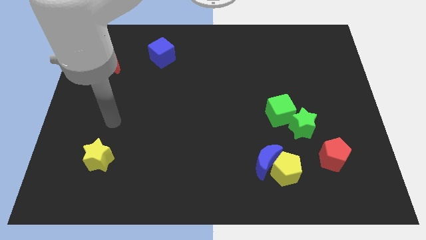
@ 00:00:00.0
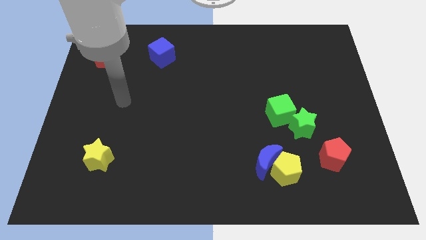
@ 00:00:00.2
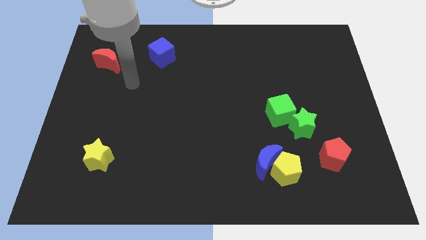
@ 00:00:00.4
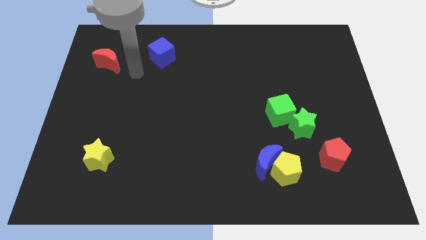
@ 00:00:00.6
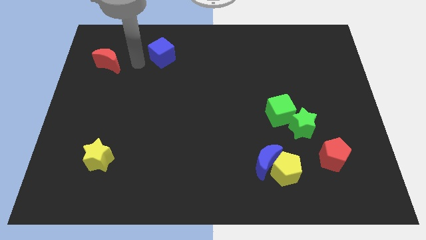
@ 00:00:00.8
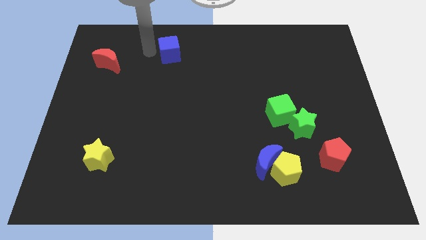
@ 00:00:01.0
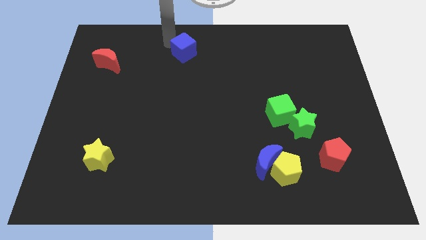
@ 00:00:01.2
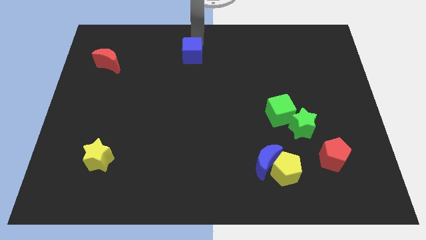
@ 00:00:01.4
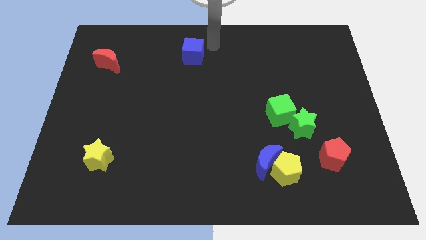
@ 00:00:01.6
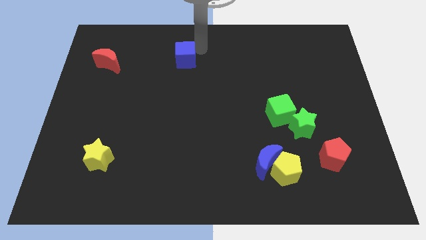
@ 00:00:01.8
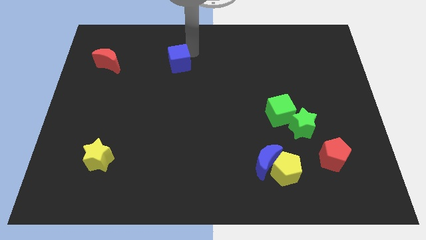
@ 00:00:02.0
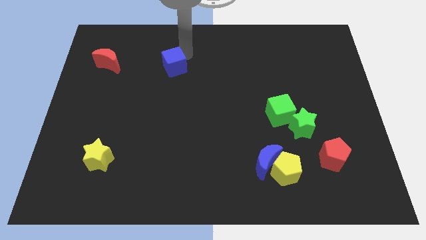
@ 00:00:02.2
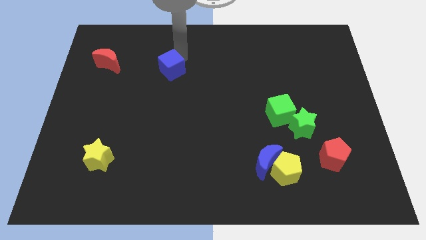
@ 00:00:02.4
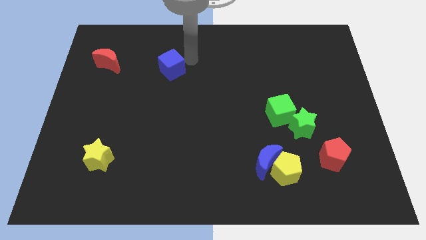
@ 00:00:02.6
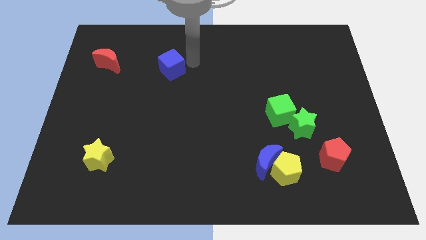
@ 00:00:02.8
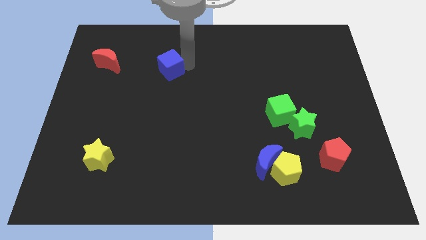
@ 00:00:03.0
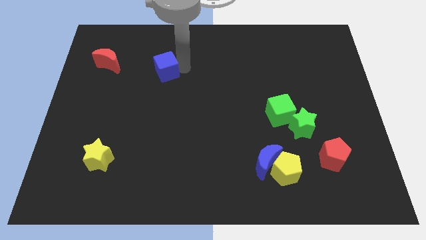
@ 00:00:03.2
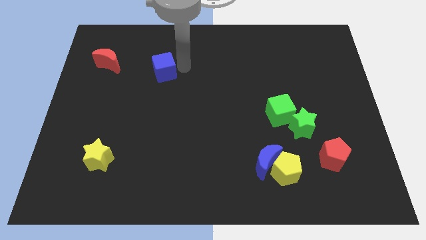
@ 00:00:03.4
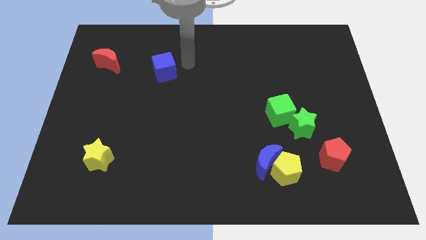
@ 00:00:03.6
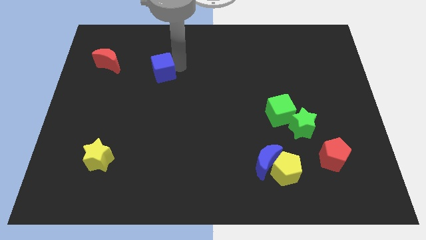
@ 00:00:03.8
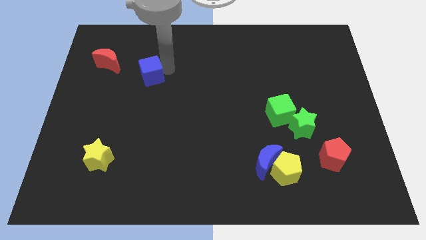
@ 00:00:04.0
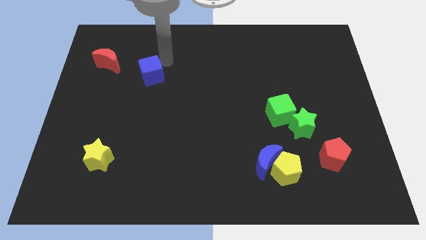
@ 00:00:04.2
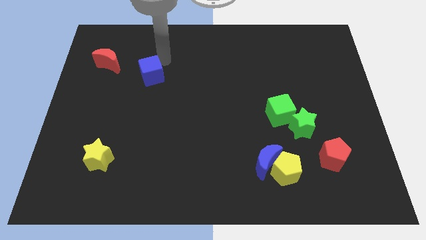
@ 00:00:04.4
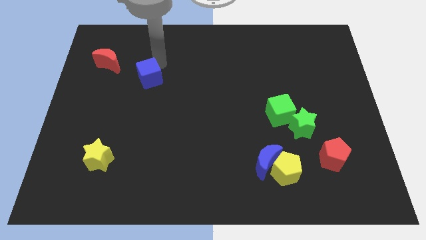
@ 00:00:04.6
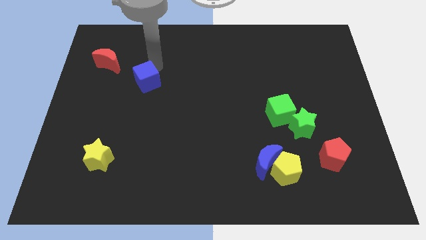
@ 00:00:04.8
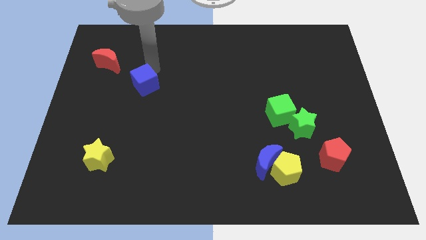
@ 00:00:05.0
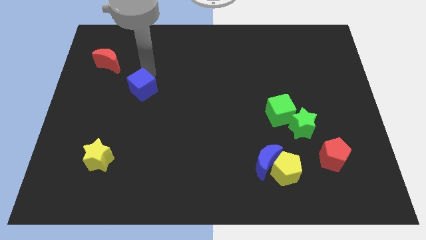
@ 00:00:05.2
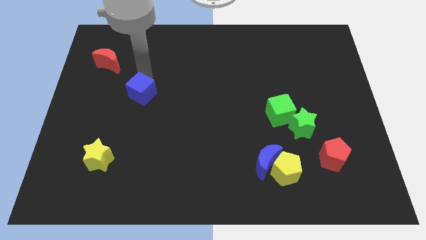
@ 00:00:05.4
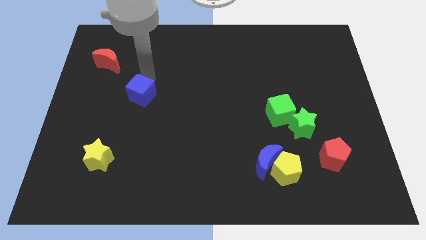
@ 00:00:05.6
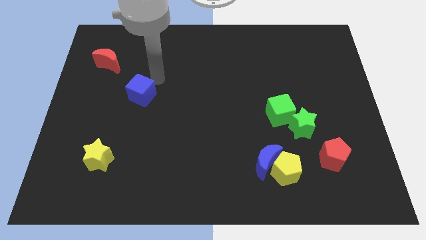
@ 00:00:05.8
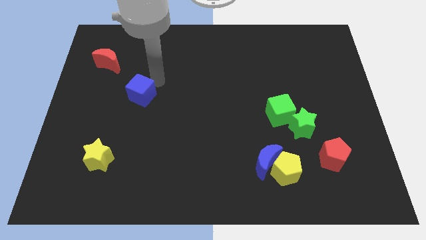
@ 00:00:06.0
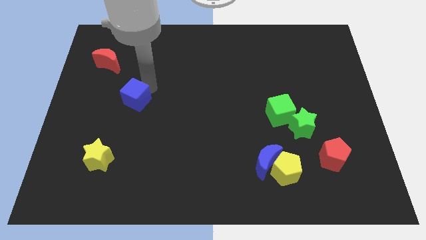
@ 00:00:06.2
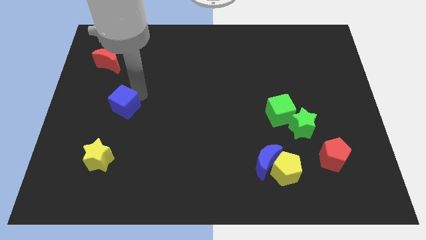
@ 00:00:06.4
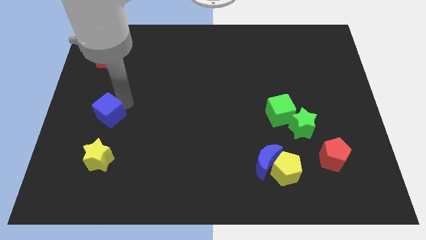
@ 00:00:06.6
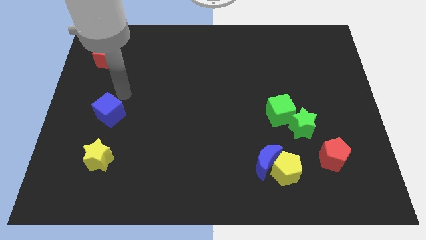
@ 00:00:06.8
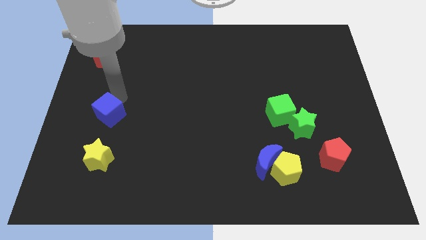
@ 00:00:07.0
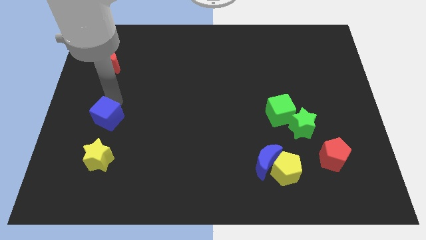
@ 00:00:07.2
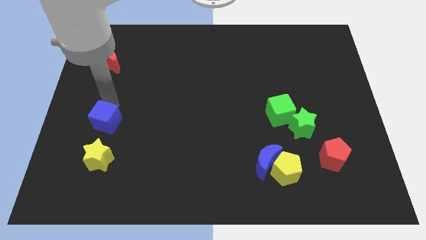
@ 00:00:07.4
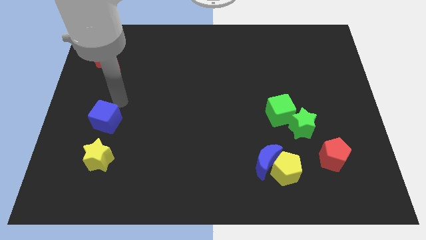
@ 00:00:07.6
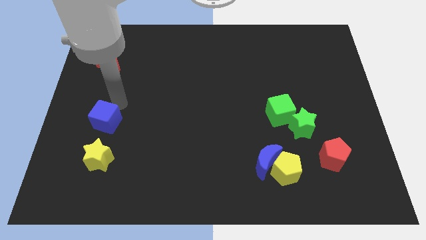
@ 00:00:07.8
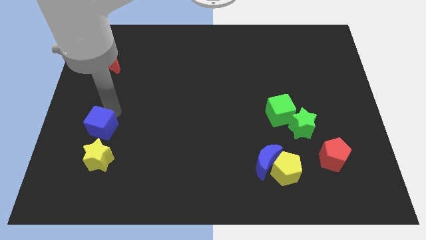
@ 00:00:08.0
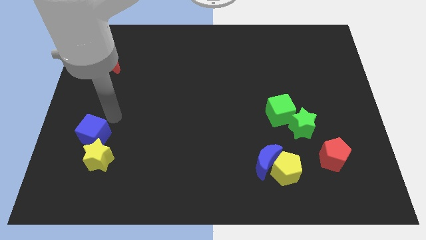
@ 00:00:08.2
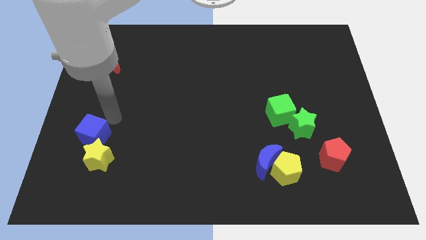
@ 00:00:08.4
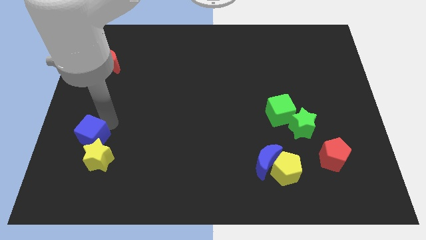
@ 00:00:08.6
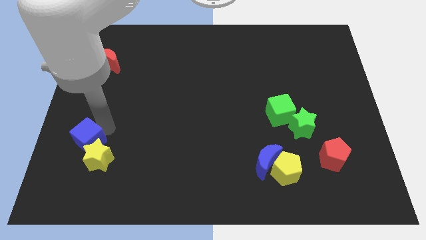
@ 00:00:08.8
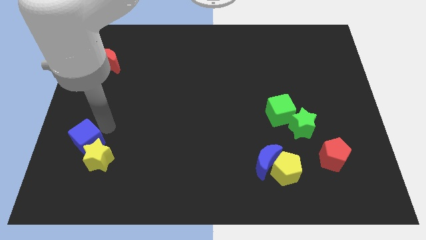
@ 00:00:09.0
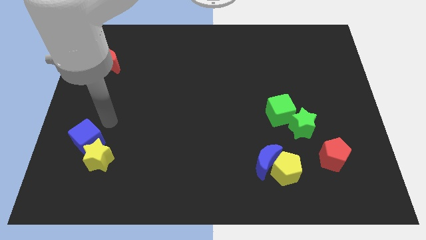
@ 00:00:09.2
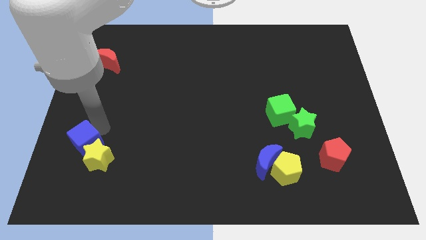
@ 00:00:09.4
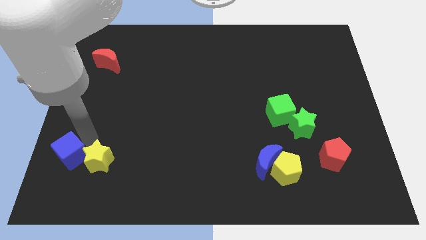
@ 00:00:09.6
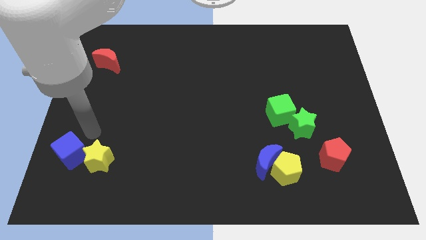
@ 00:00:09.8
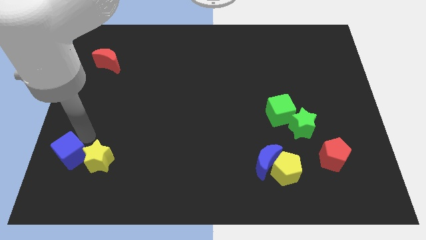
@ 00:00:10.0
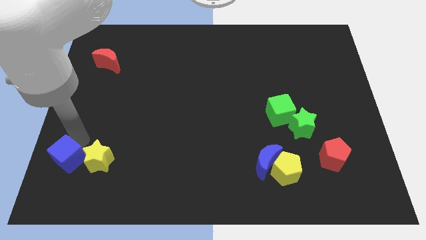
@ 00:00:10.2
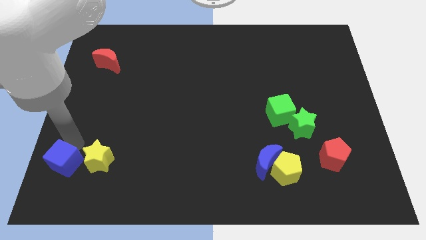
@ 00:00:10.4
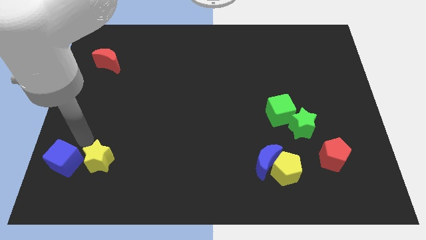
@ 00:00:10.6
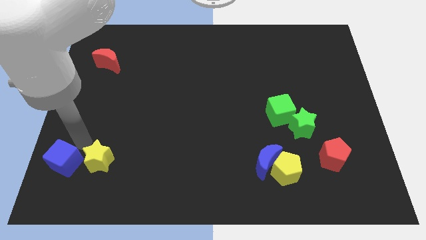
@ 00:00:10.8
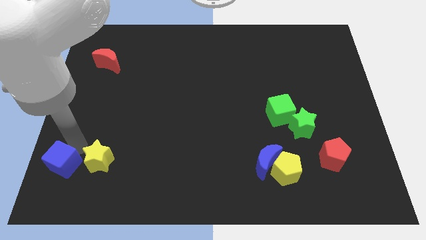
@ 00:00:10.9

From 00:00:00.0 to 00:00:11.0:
push the blue cube to the lower left corner

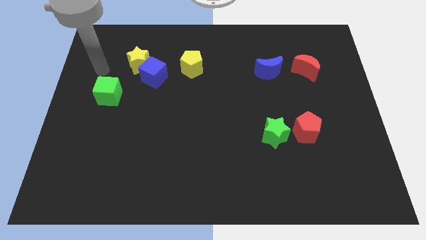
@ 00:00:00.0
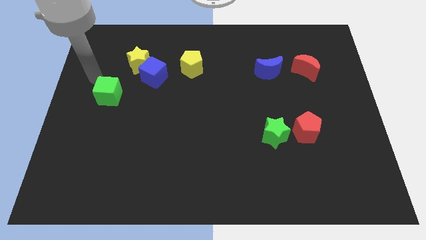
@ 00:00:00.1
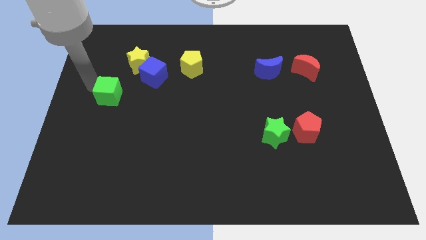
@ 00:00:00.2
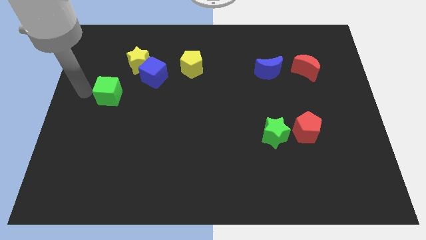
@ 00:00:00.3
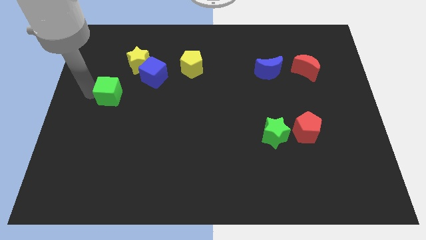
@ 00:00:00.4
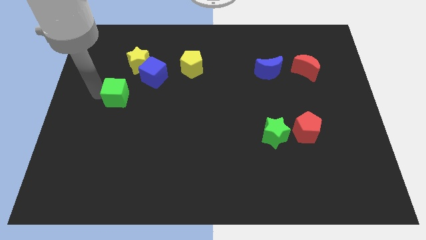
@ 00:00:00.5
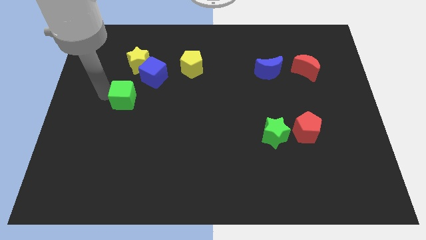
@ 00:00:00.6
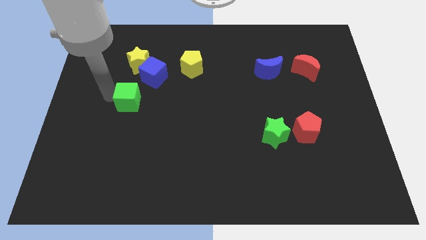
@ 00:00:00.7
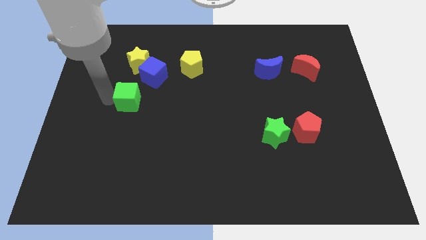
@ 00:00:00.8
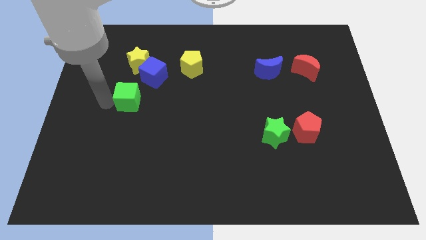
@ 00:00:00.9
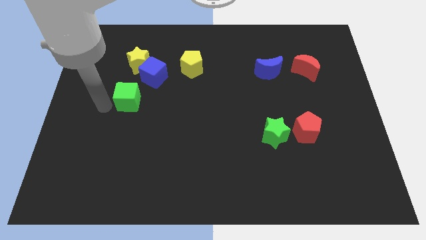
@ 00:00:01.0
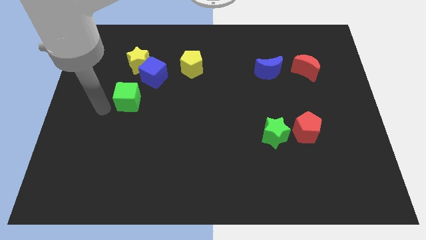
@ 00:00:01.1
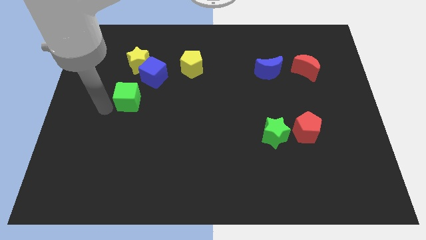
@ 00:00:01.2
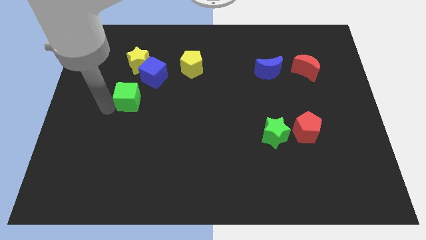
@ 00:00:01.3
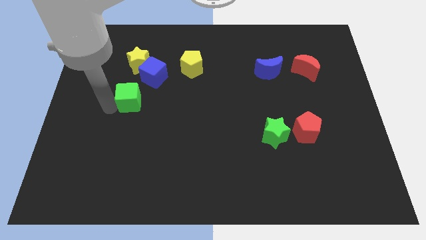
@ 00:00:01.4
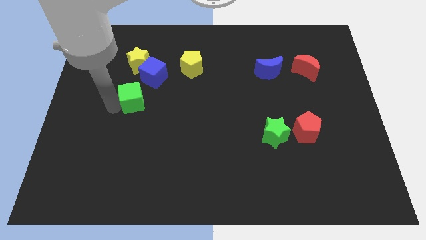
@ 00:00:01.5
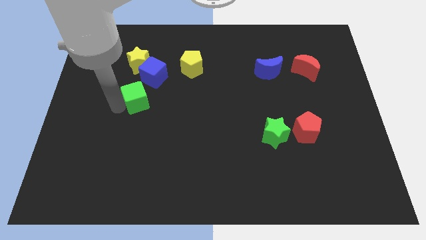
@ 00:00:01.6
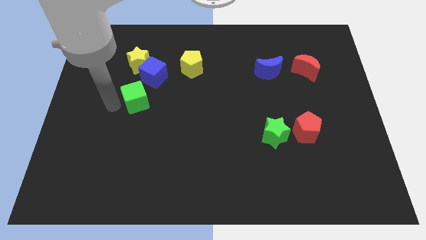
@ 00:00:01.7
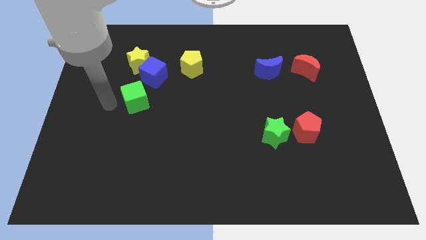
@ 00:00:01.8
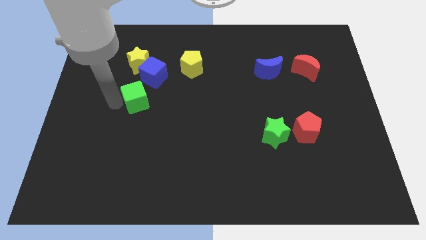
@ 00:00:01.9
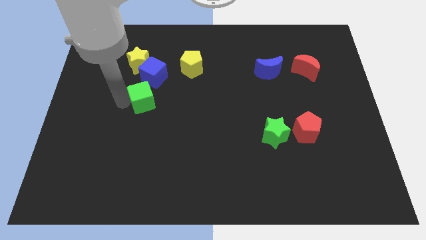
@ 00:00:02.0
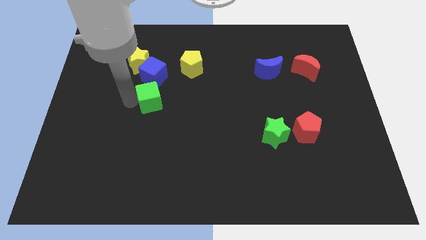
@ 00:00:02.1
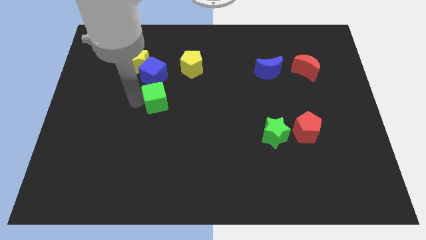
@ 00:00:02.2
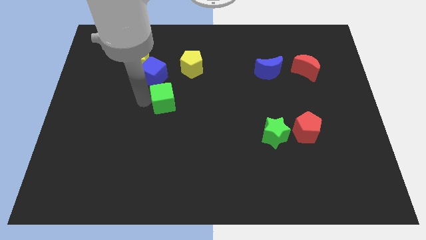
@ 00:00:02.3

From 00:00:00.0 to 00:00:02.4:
push the green cube to the middle of the board
